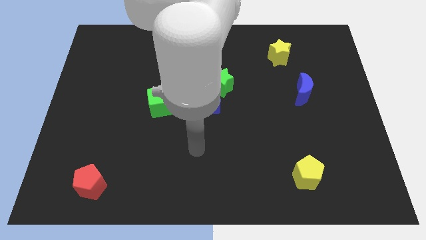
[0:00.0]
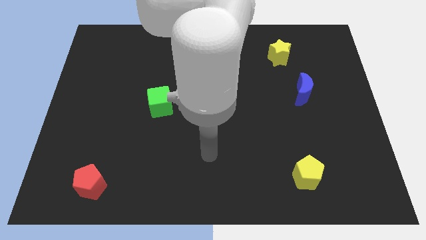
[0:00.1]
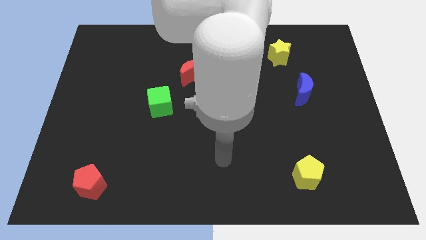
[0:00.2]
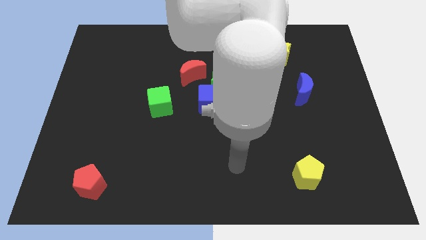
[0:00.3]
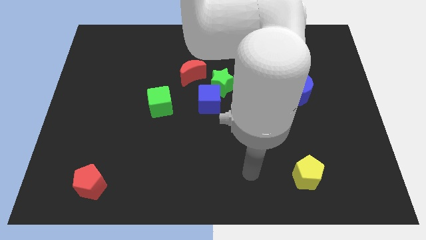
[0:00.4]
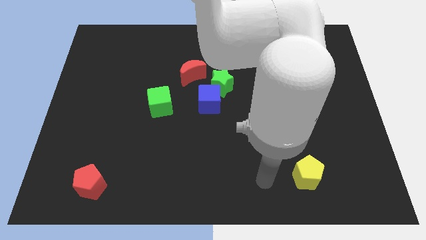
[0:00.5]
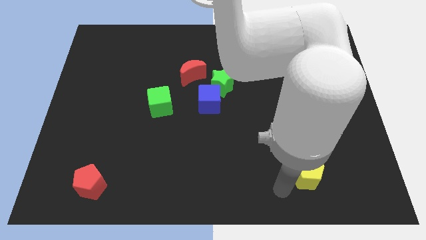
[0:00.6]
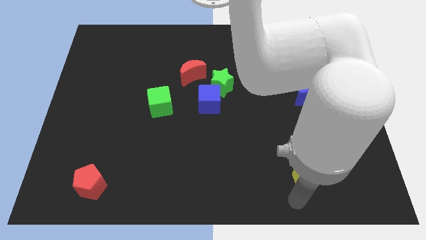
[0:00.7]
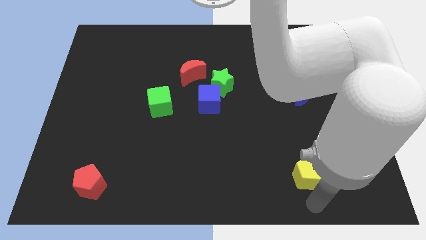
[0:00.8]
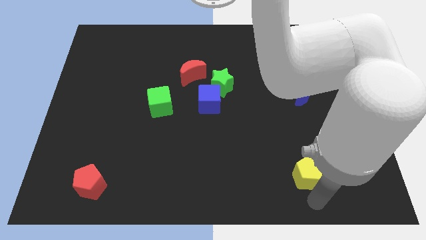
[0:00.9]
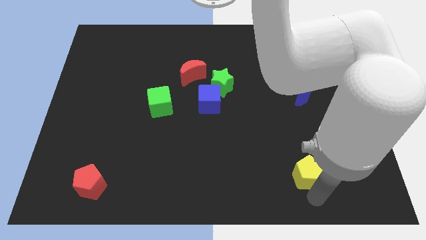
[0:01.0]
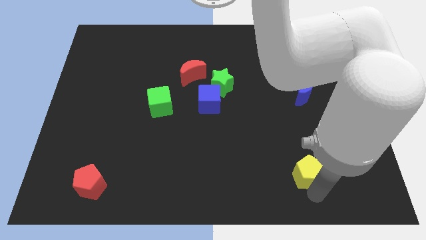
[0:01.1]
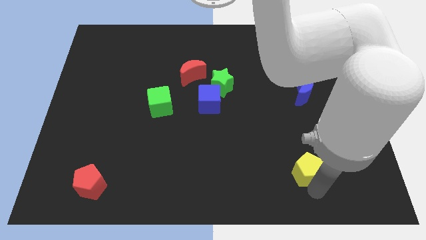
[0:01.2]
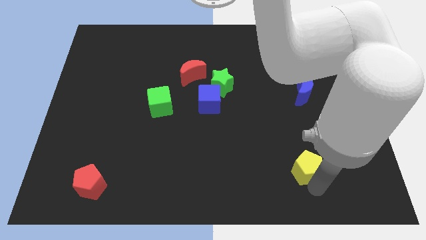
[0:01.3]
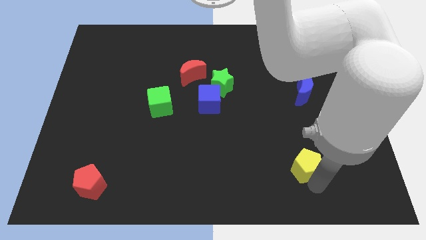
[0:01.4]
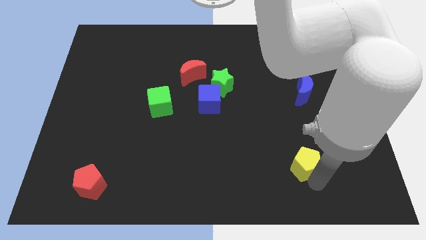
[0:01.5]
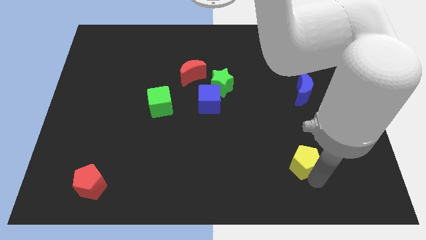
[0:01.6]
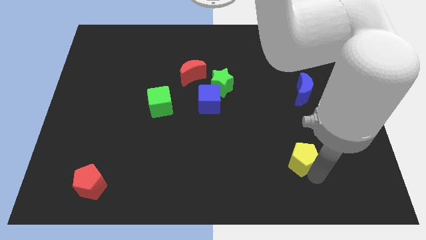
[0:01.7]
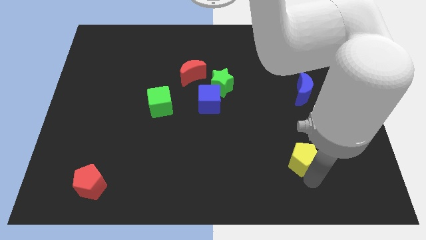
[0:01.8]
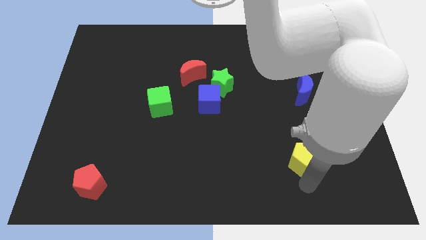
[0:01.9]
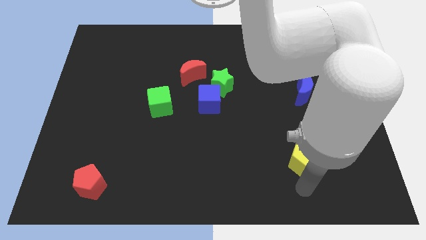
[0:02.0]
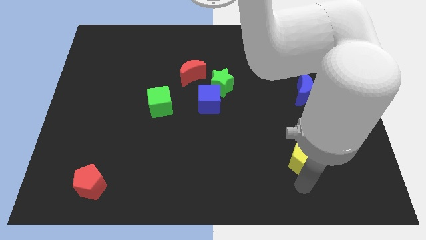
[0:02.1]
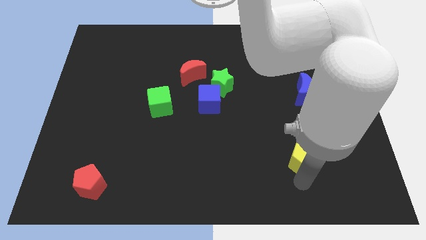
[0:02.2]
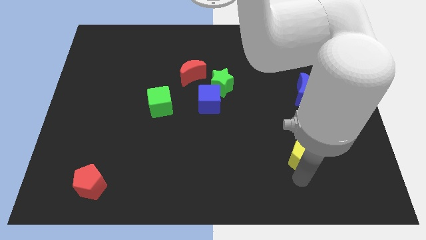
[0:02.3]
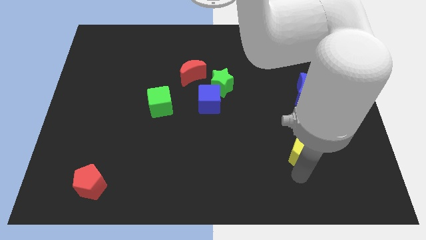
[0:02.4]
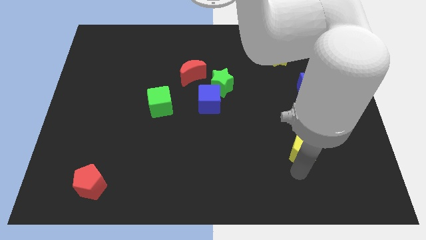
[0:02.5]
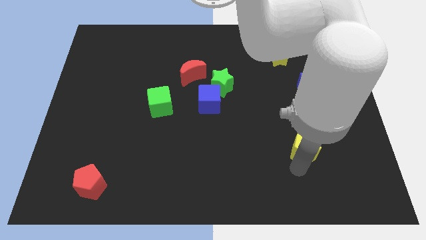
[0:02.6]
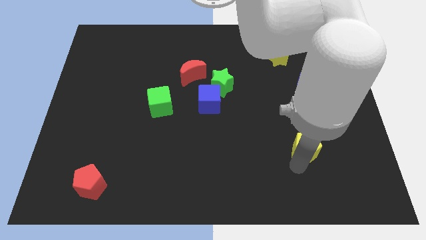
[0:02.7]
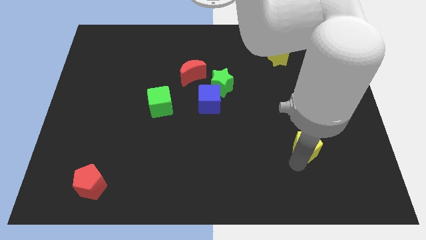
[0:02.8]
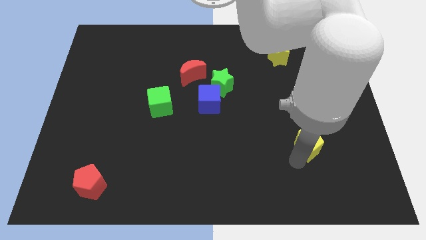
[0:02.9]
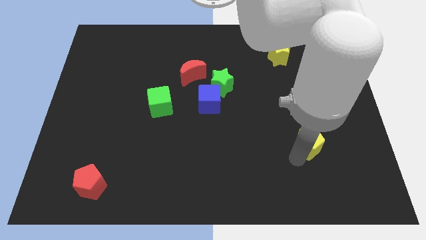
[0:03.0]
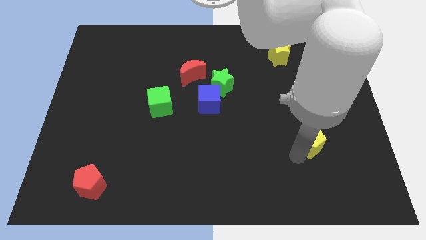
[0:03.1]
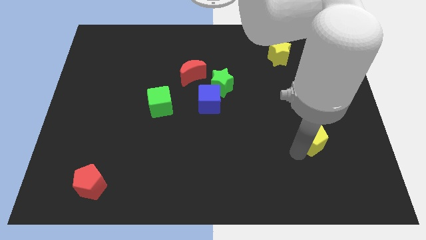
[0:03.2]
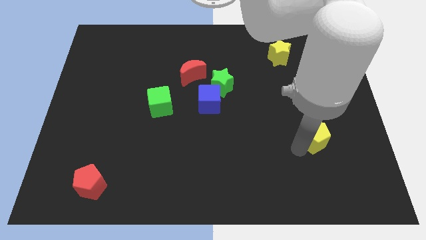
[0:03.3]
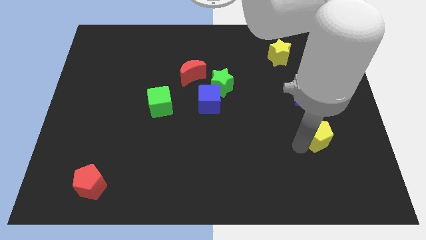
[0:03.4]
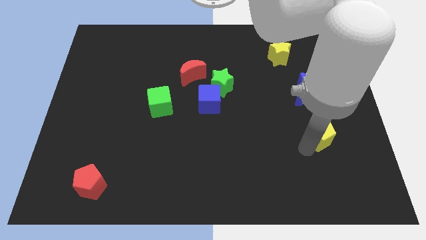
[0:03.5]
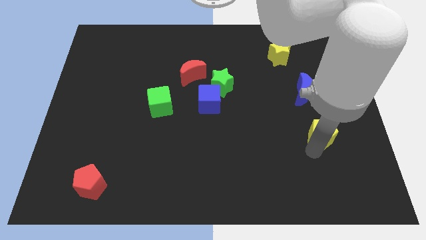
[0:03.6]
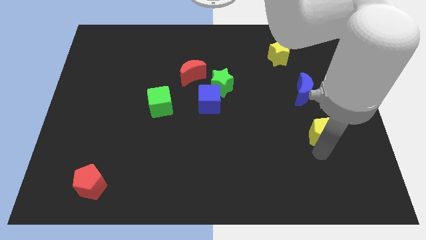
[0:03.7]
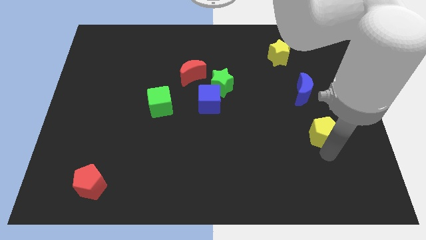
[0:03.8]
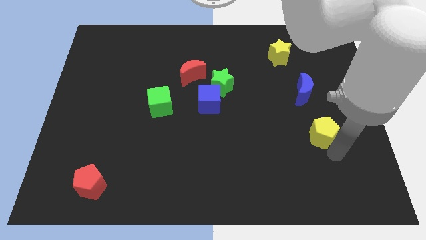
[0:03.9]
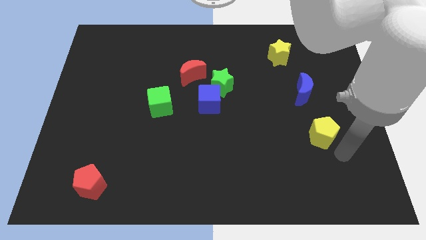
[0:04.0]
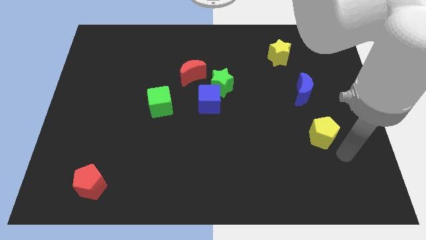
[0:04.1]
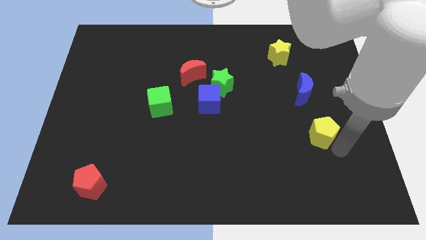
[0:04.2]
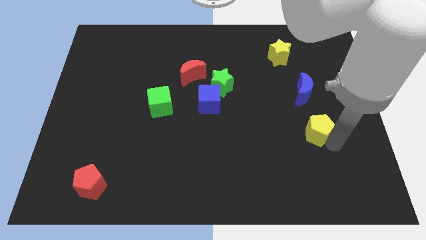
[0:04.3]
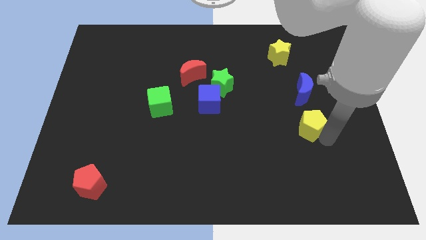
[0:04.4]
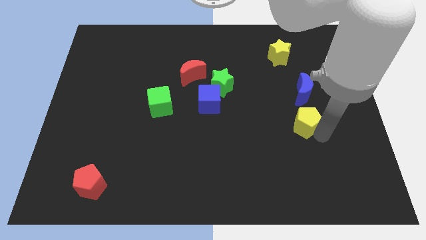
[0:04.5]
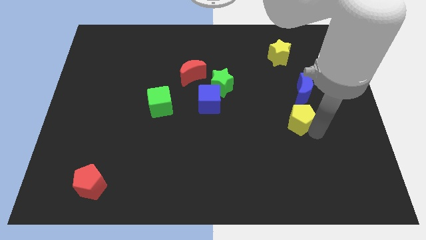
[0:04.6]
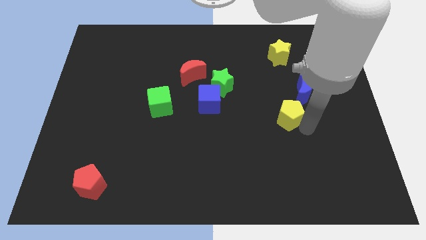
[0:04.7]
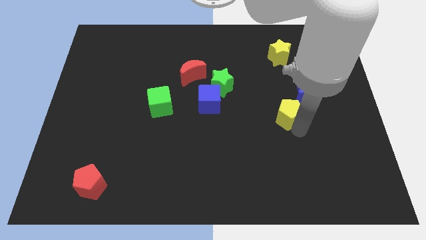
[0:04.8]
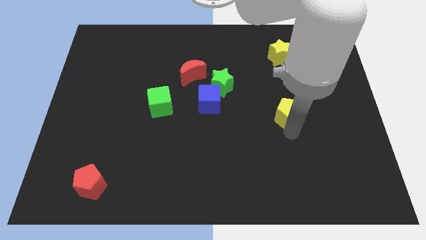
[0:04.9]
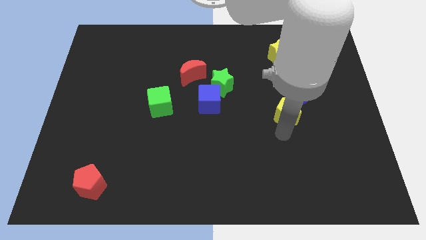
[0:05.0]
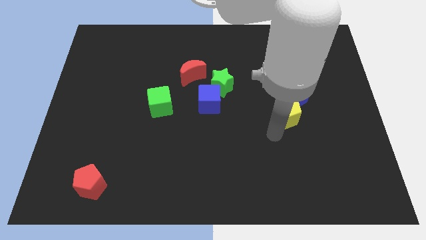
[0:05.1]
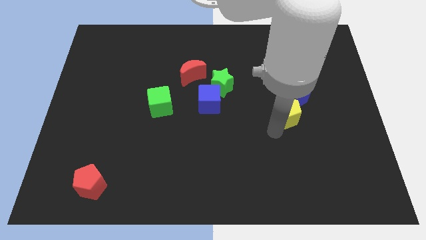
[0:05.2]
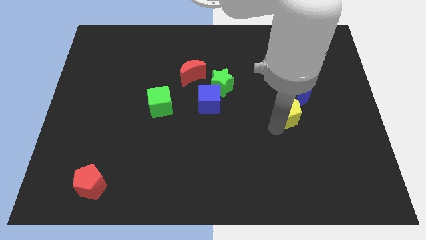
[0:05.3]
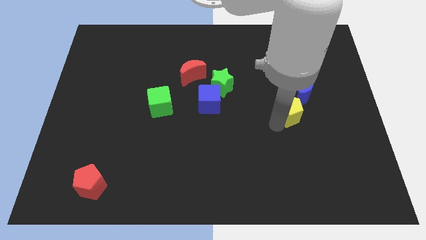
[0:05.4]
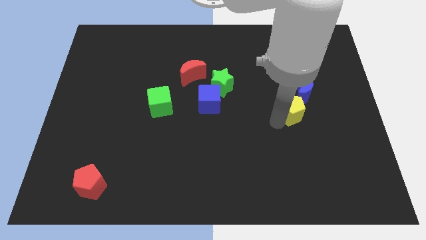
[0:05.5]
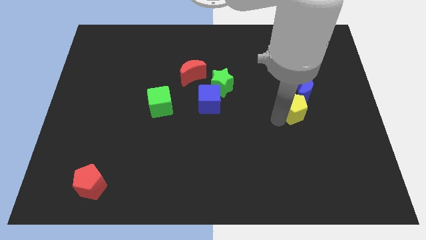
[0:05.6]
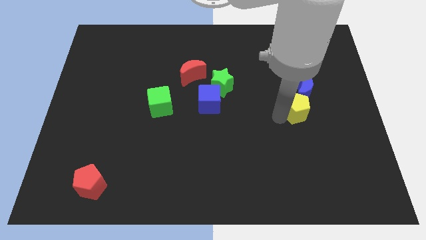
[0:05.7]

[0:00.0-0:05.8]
move the yellow pentagon close to the blue moon

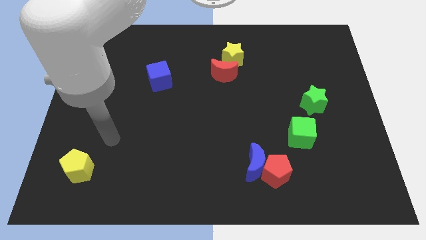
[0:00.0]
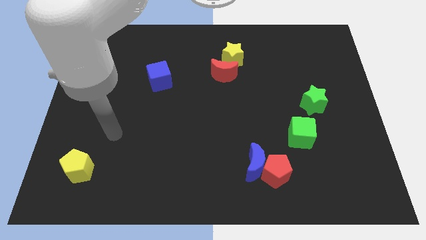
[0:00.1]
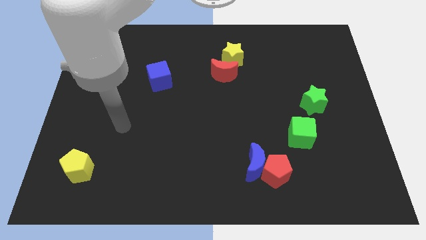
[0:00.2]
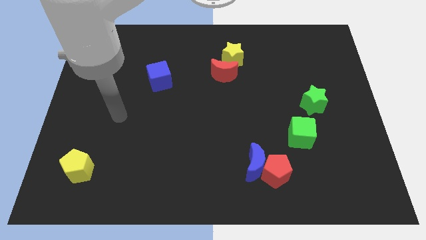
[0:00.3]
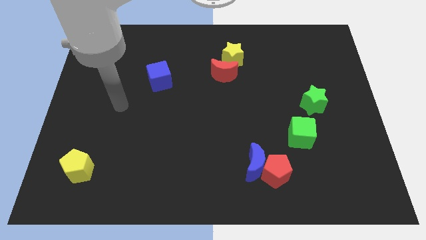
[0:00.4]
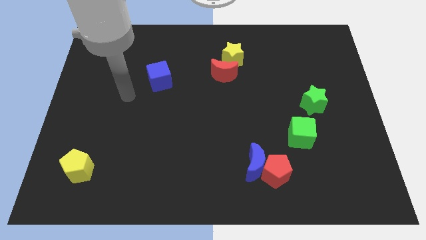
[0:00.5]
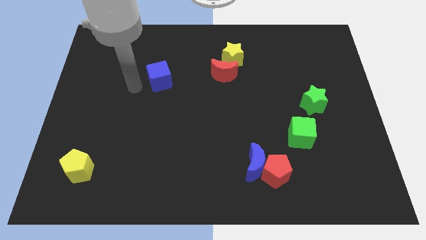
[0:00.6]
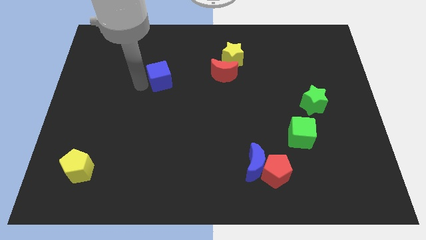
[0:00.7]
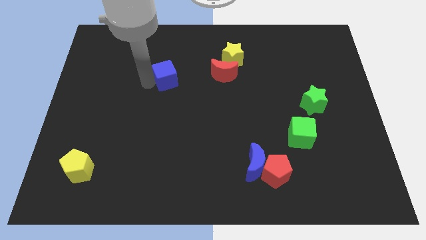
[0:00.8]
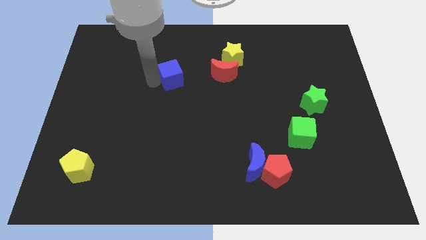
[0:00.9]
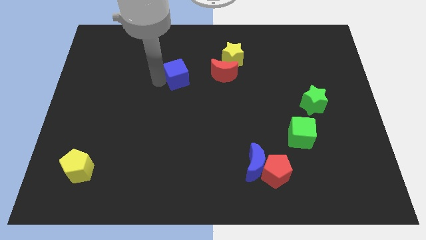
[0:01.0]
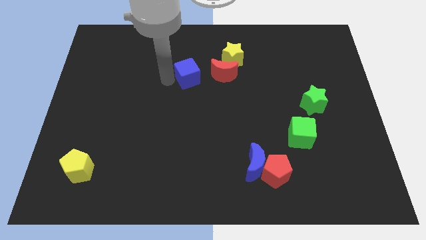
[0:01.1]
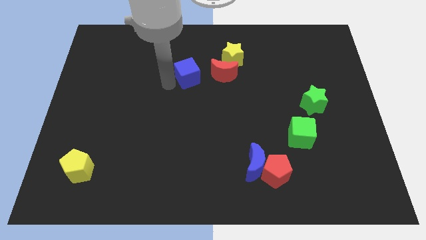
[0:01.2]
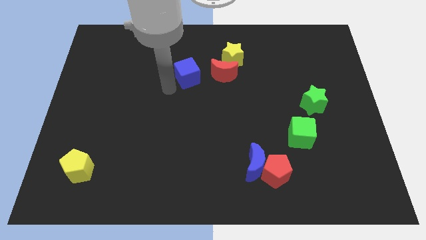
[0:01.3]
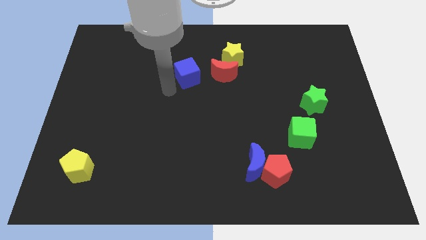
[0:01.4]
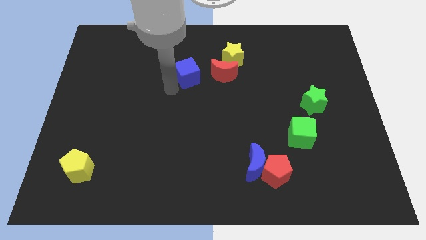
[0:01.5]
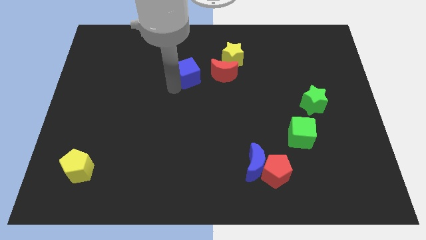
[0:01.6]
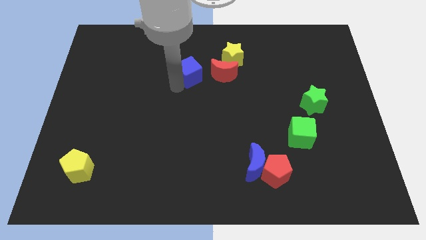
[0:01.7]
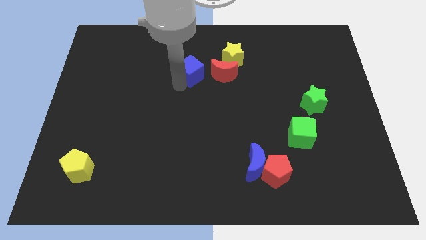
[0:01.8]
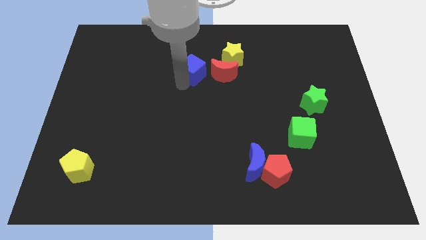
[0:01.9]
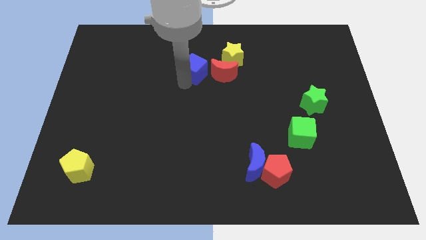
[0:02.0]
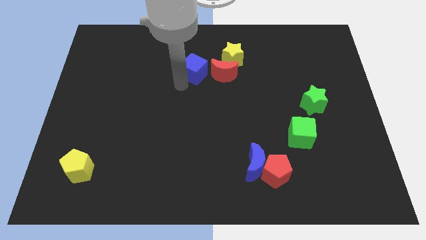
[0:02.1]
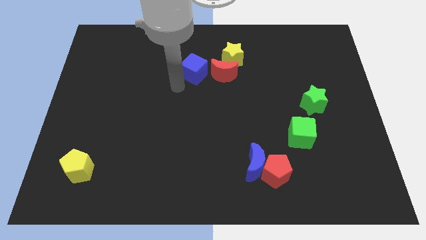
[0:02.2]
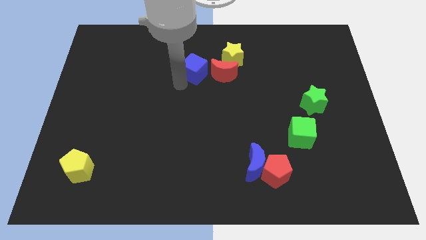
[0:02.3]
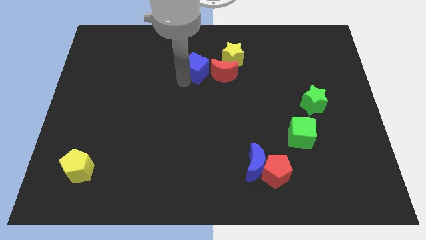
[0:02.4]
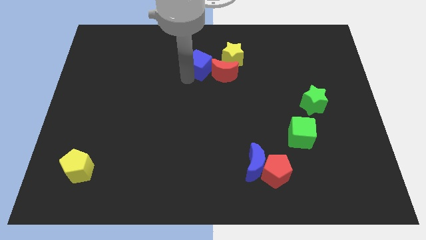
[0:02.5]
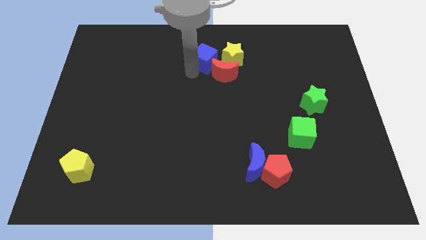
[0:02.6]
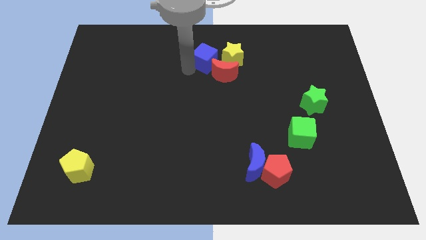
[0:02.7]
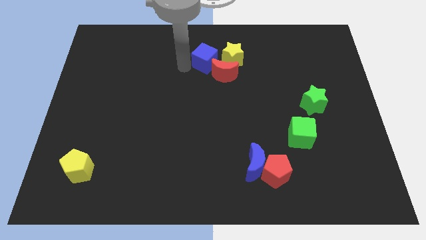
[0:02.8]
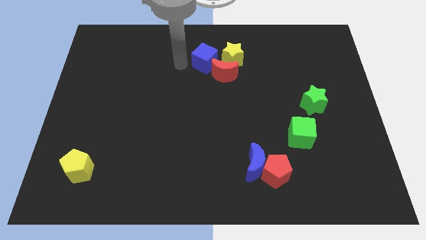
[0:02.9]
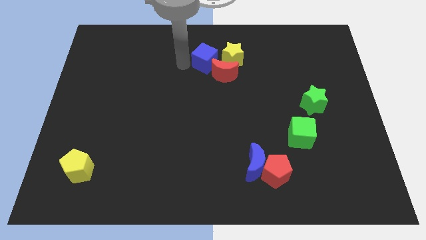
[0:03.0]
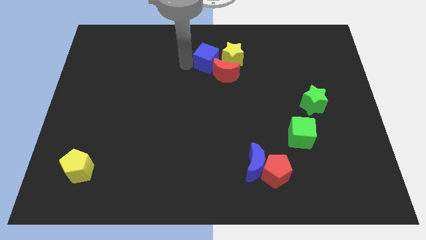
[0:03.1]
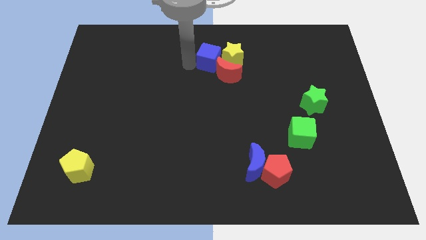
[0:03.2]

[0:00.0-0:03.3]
slide the blue cube close to the yellow star
